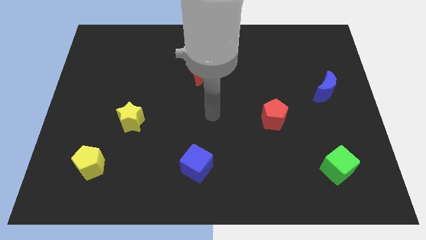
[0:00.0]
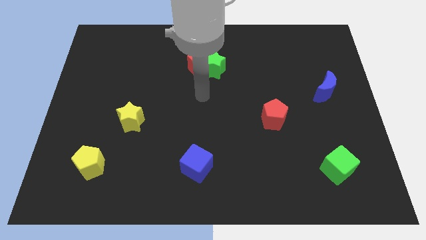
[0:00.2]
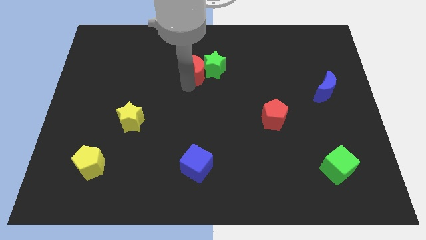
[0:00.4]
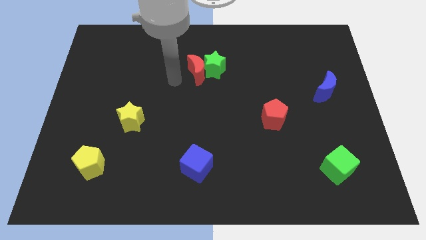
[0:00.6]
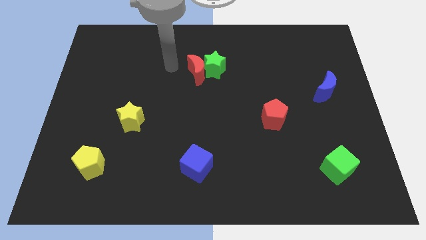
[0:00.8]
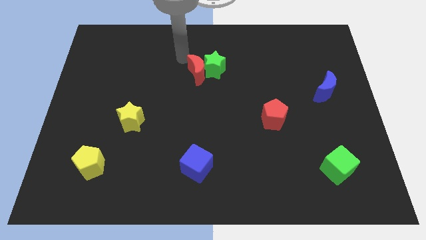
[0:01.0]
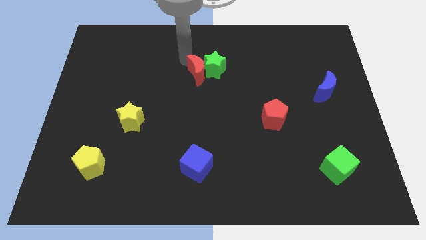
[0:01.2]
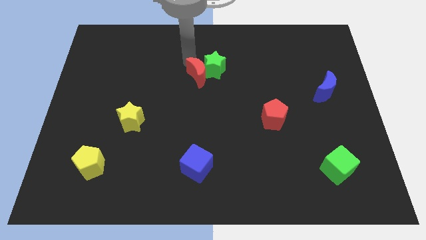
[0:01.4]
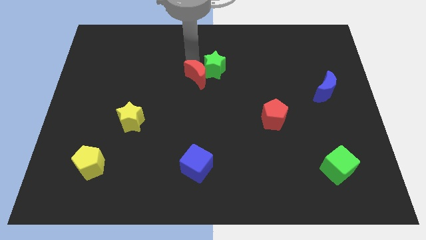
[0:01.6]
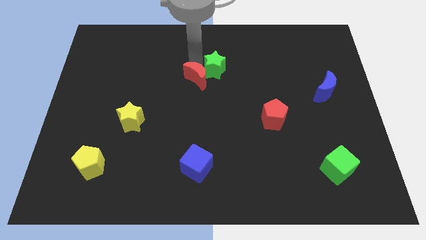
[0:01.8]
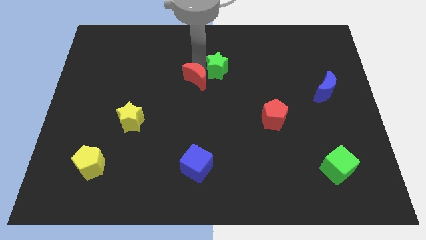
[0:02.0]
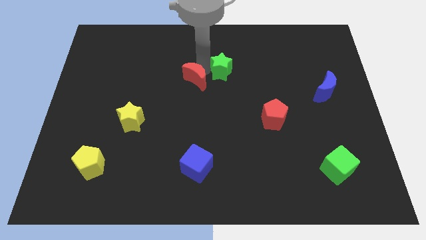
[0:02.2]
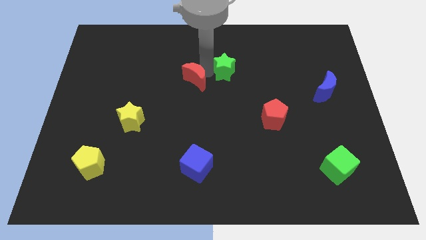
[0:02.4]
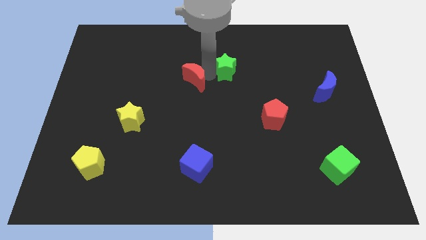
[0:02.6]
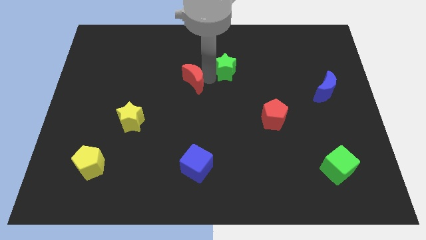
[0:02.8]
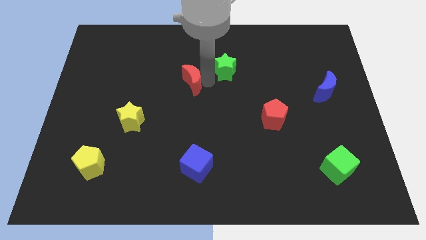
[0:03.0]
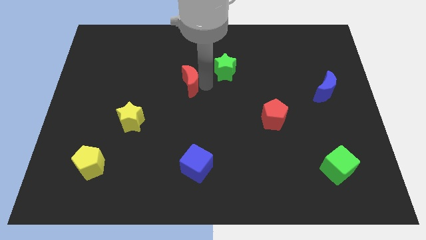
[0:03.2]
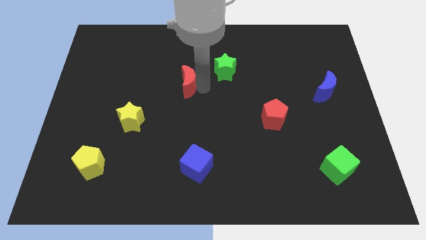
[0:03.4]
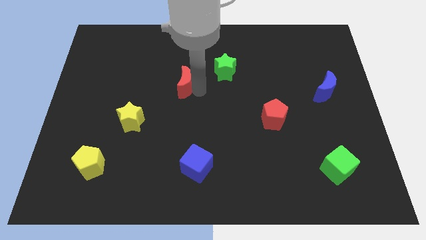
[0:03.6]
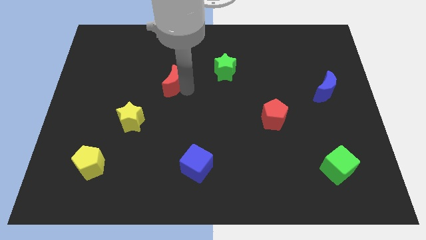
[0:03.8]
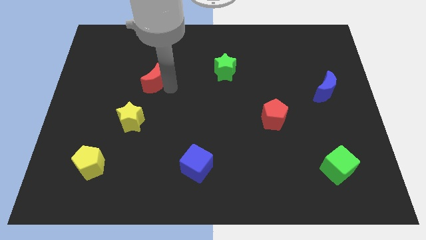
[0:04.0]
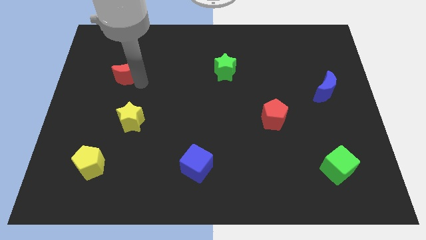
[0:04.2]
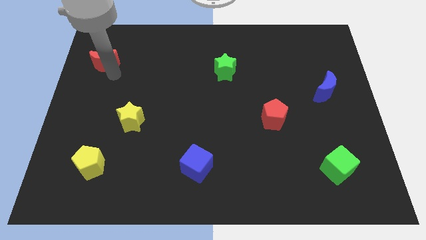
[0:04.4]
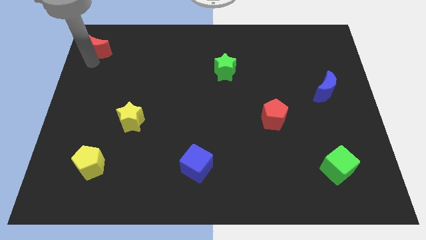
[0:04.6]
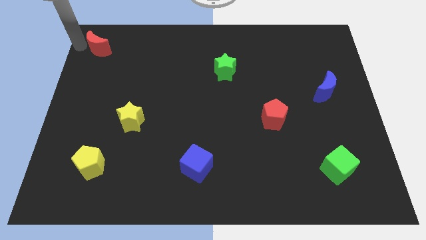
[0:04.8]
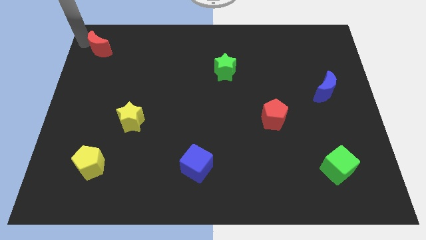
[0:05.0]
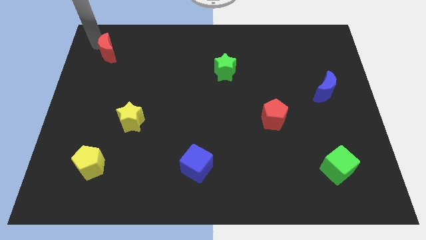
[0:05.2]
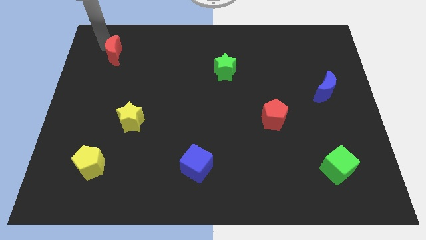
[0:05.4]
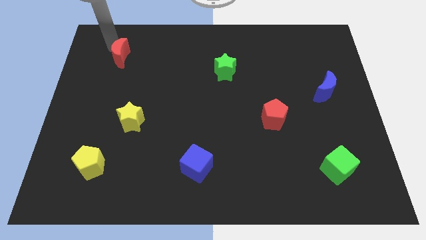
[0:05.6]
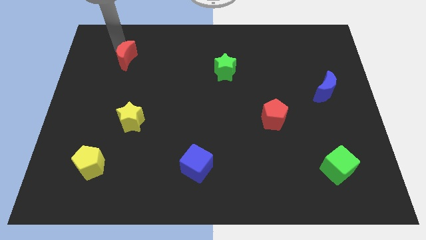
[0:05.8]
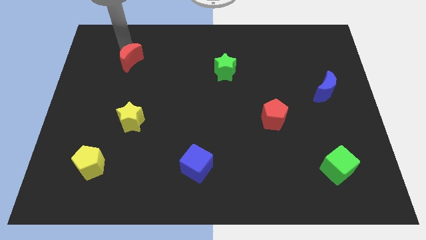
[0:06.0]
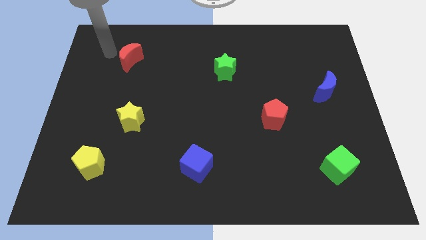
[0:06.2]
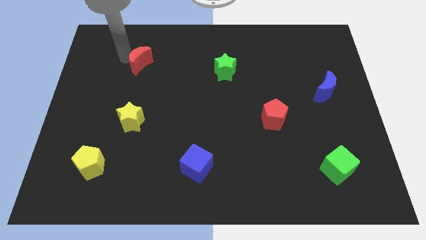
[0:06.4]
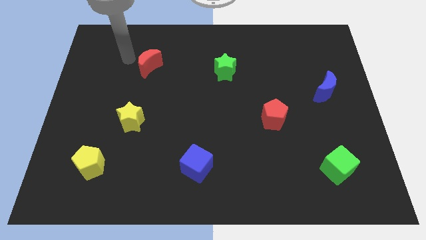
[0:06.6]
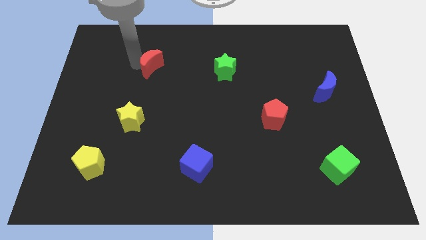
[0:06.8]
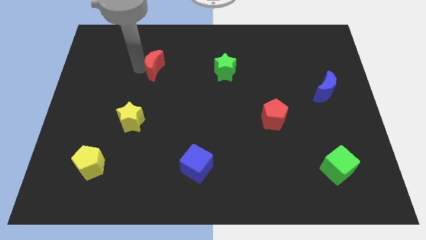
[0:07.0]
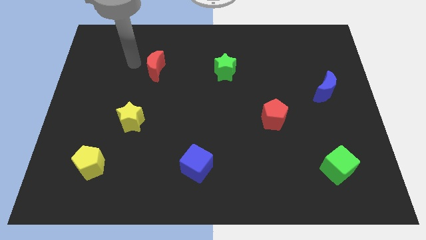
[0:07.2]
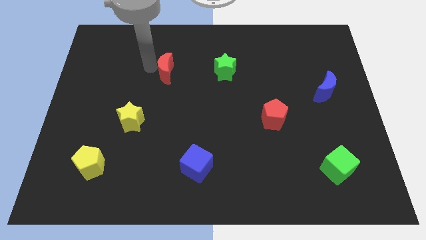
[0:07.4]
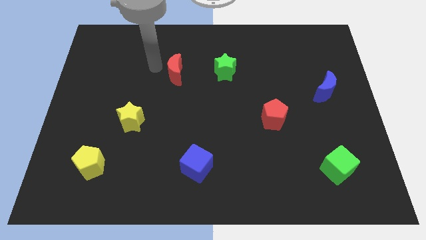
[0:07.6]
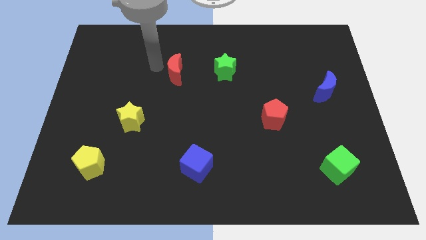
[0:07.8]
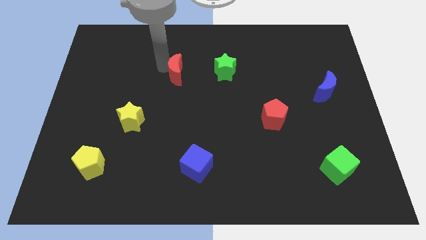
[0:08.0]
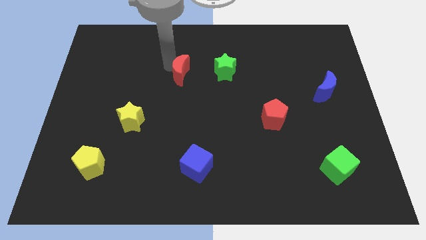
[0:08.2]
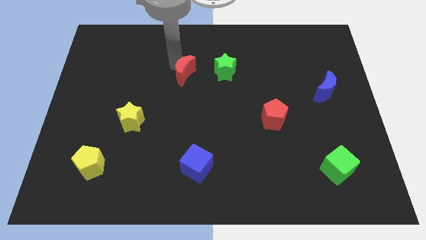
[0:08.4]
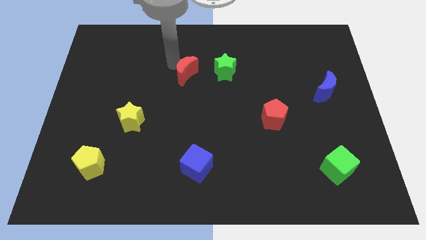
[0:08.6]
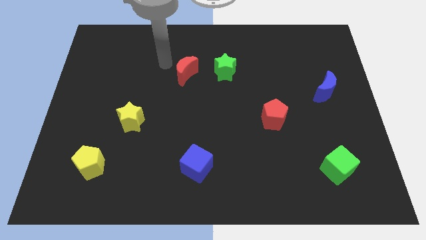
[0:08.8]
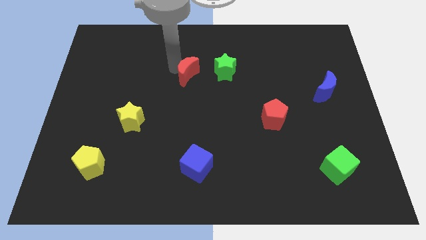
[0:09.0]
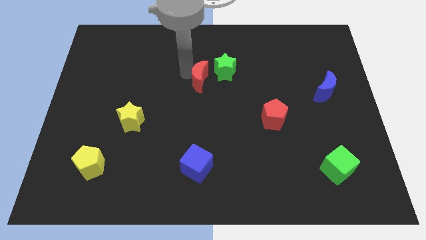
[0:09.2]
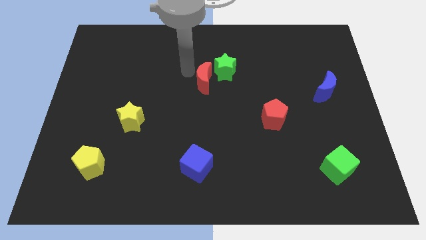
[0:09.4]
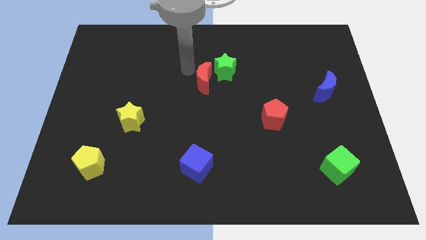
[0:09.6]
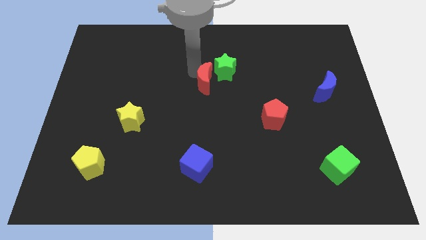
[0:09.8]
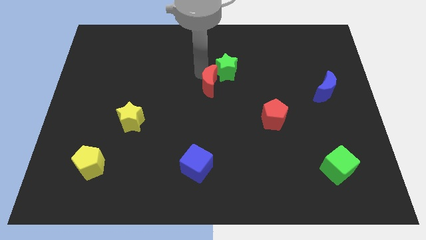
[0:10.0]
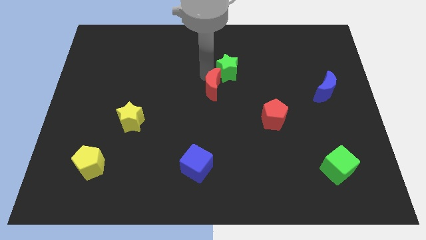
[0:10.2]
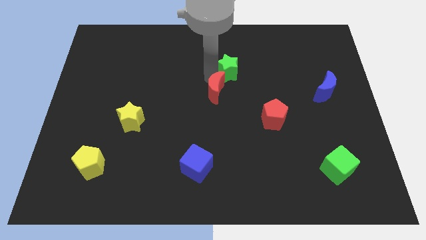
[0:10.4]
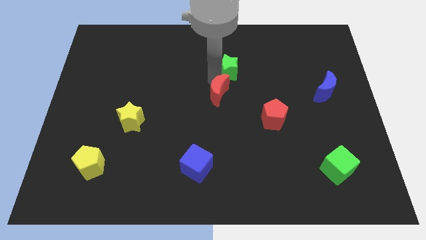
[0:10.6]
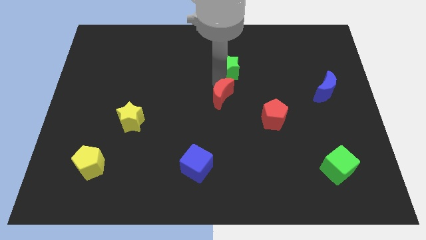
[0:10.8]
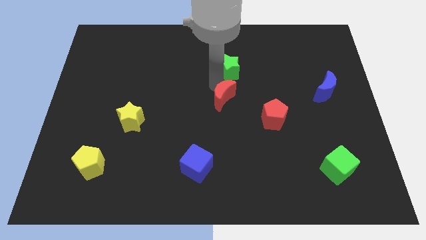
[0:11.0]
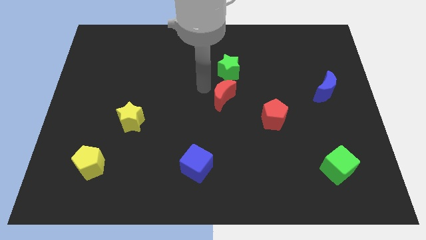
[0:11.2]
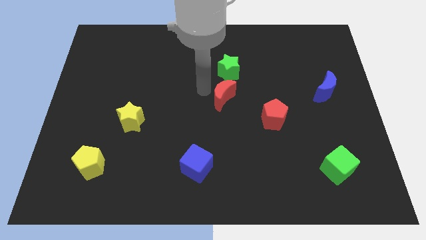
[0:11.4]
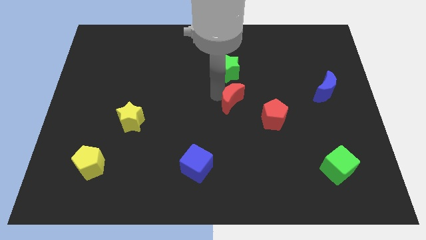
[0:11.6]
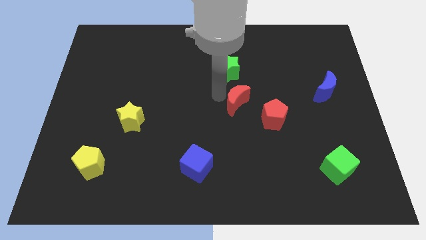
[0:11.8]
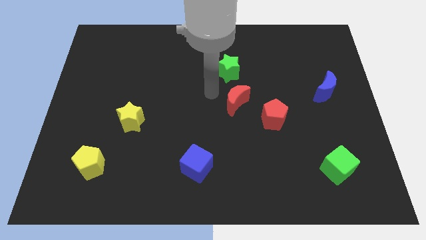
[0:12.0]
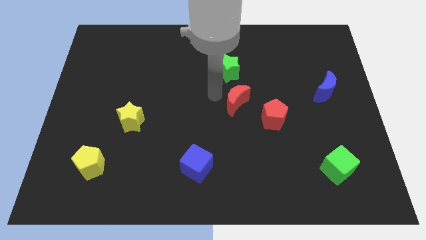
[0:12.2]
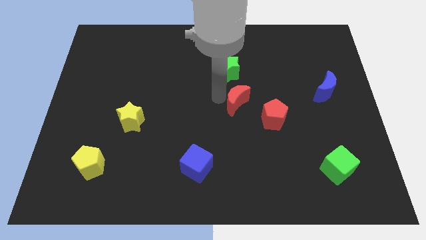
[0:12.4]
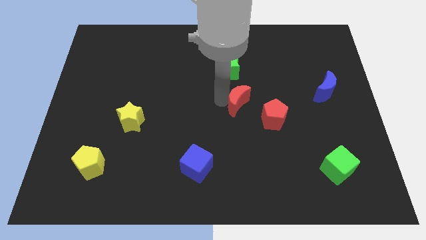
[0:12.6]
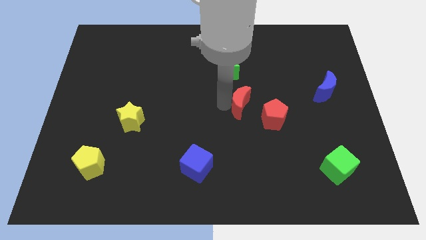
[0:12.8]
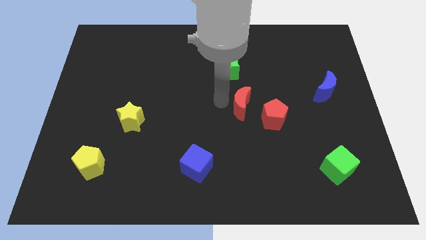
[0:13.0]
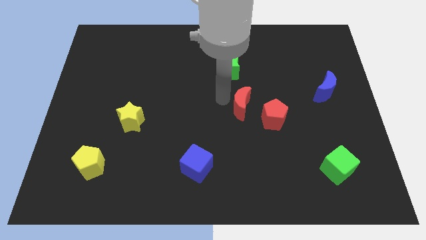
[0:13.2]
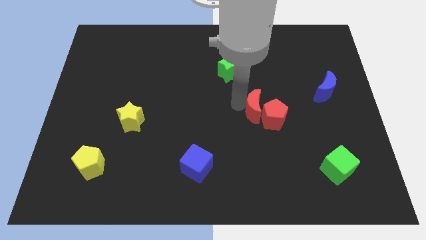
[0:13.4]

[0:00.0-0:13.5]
slide the red moon close to the red pentagon

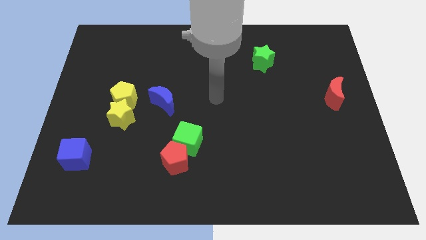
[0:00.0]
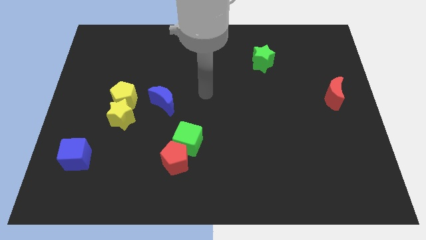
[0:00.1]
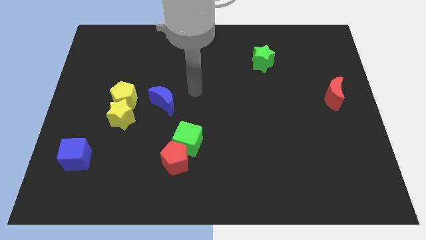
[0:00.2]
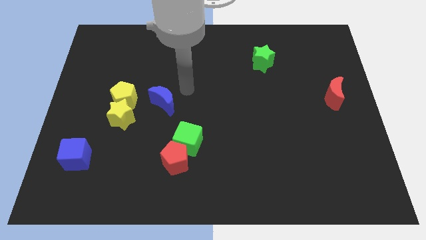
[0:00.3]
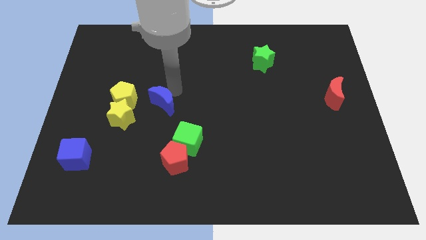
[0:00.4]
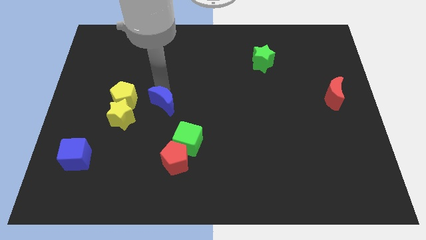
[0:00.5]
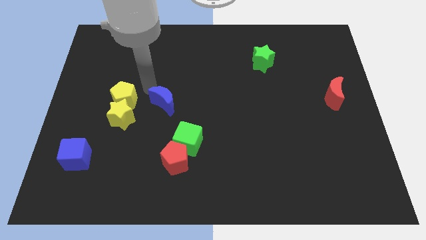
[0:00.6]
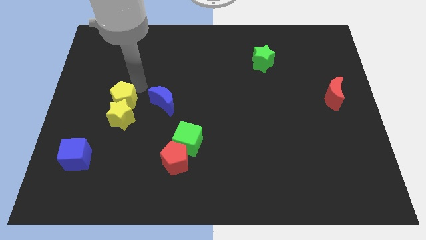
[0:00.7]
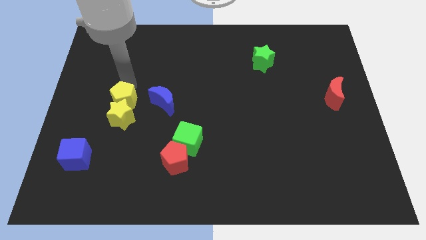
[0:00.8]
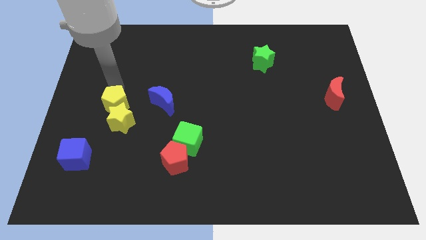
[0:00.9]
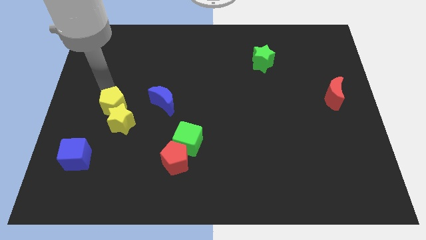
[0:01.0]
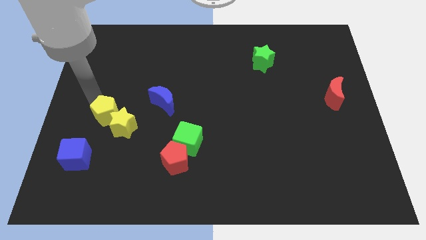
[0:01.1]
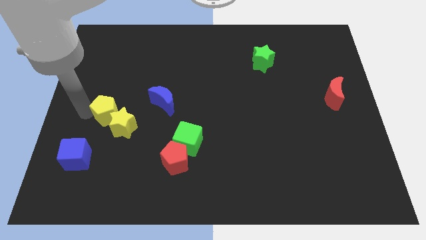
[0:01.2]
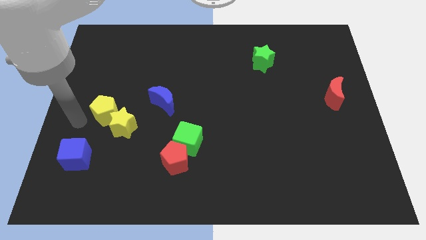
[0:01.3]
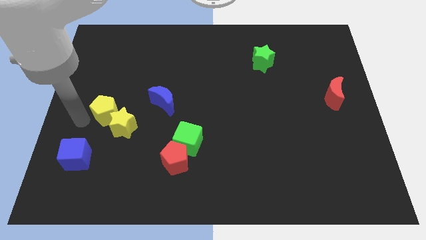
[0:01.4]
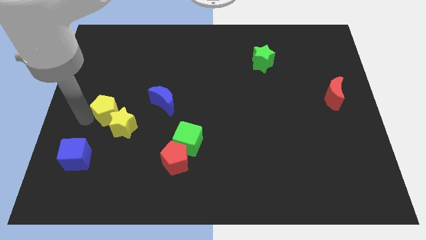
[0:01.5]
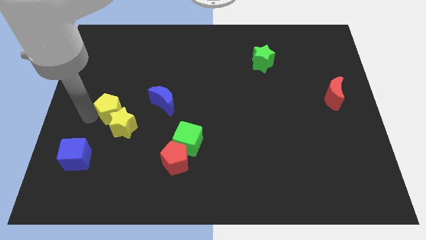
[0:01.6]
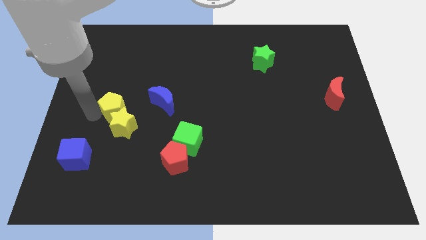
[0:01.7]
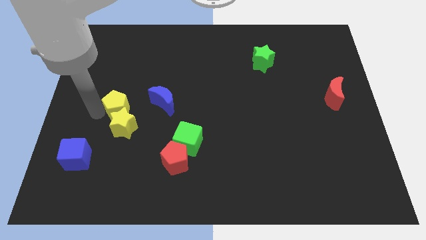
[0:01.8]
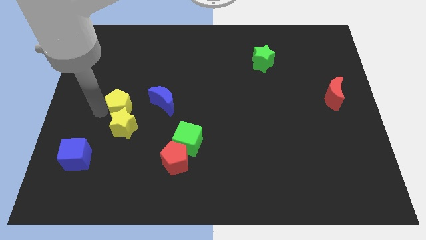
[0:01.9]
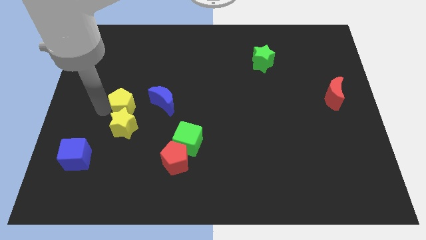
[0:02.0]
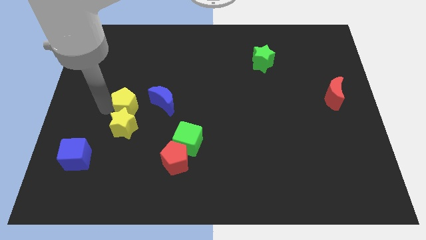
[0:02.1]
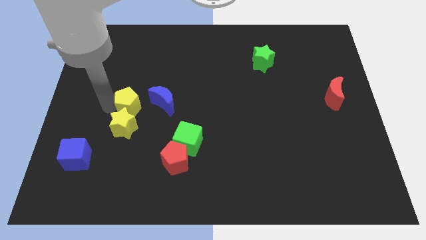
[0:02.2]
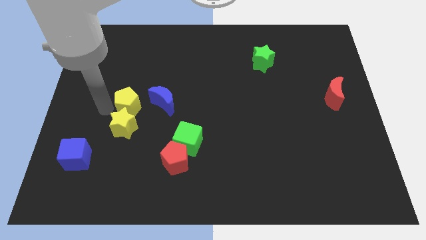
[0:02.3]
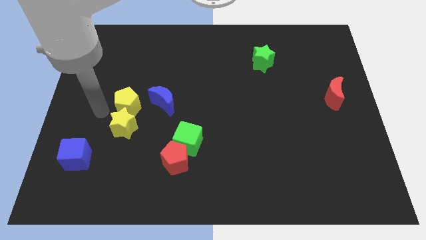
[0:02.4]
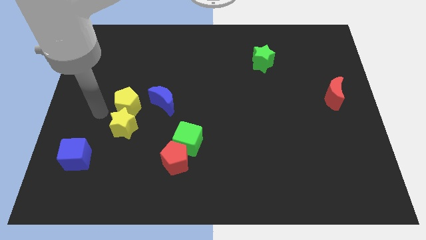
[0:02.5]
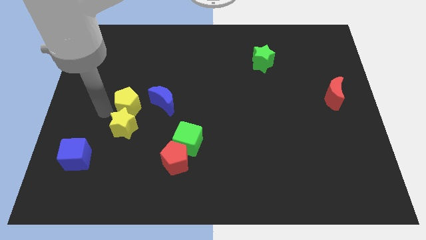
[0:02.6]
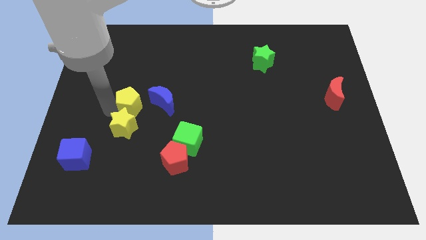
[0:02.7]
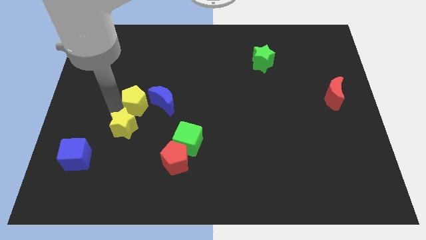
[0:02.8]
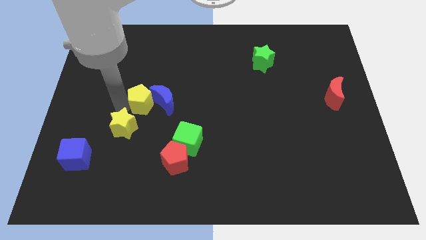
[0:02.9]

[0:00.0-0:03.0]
push the yellow pentagon close to the blue moon
